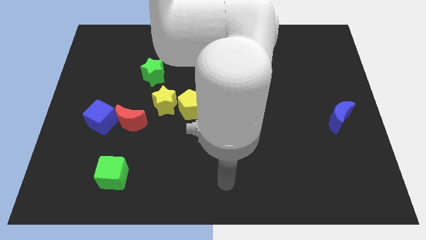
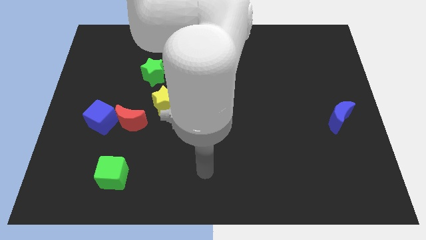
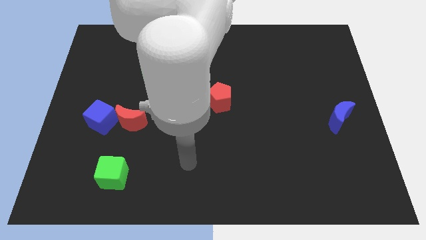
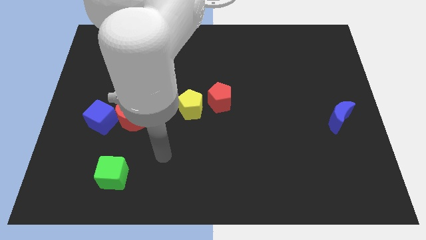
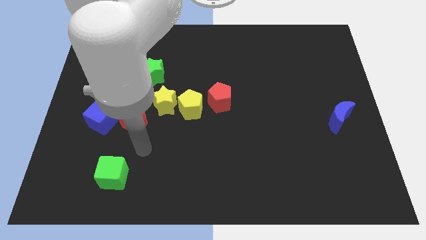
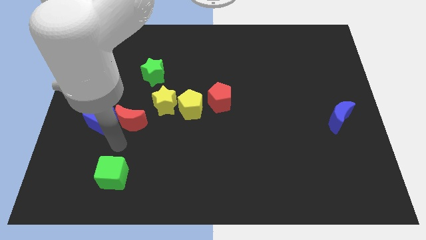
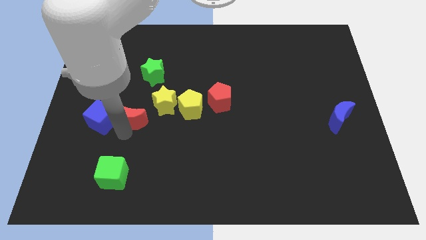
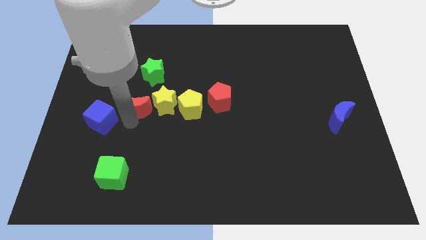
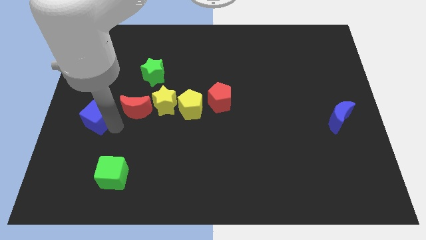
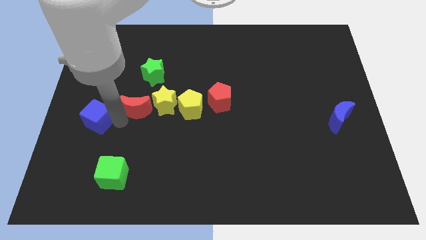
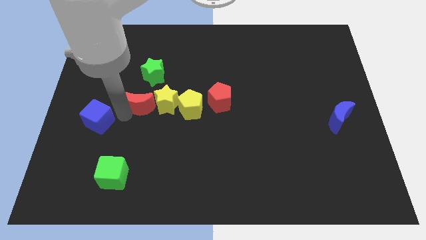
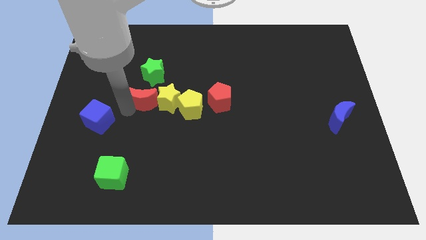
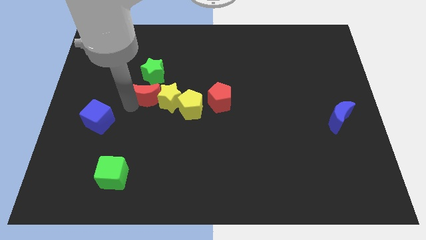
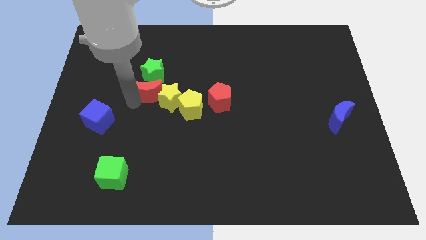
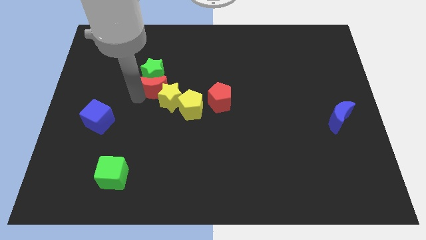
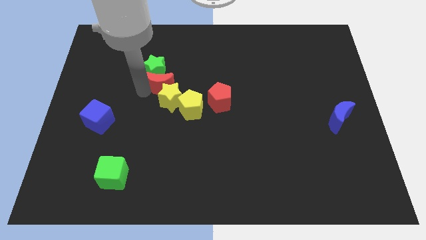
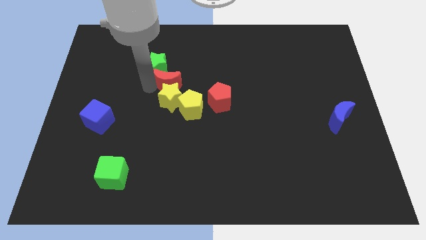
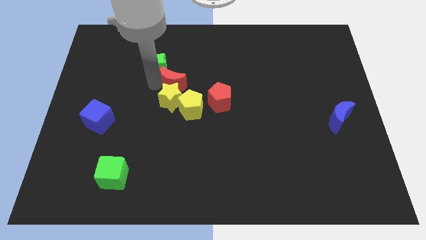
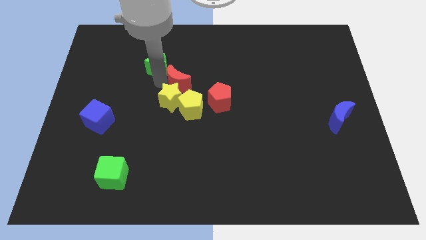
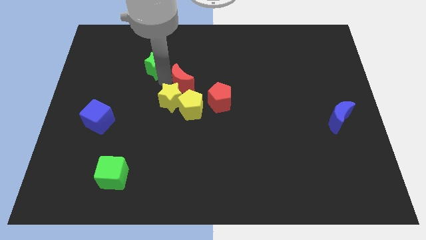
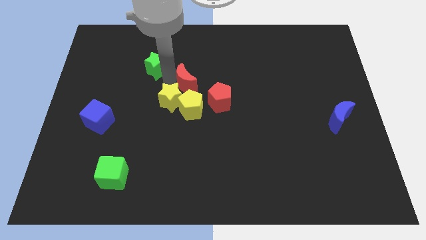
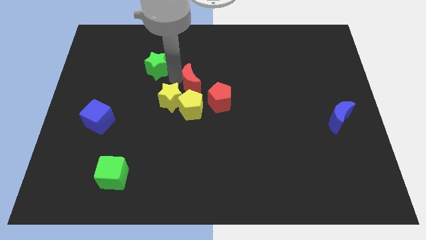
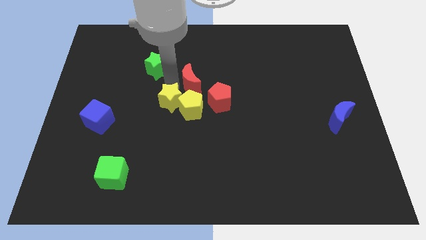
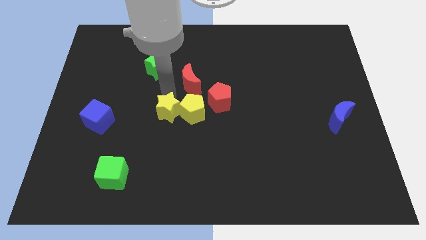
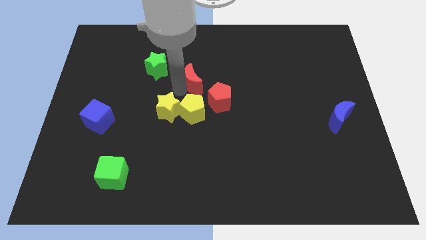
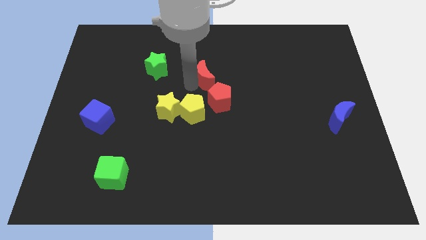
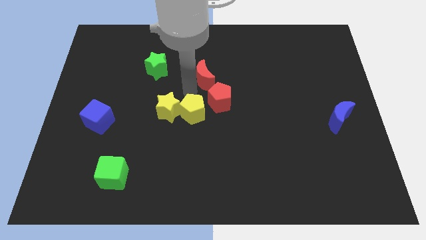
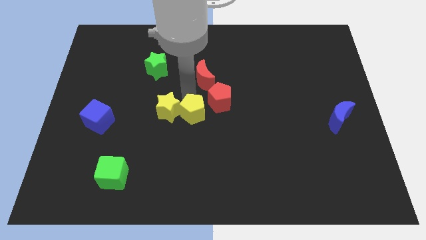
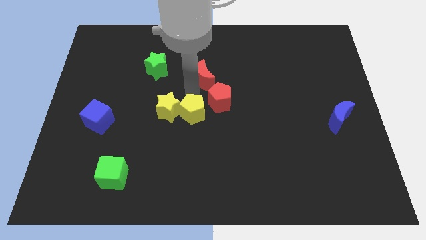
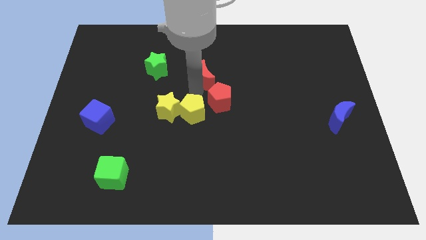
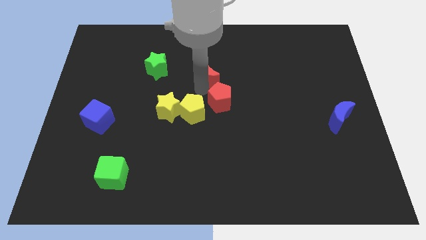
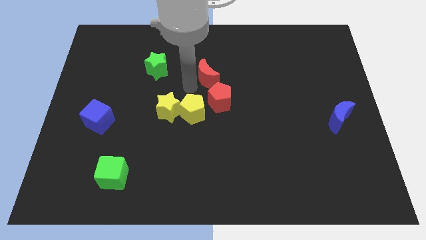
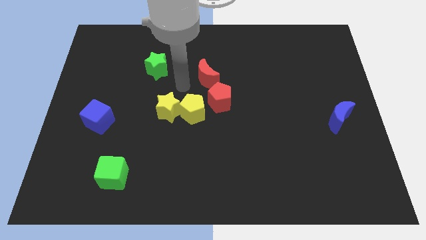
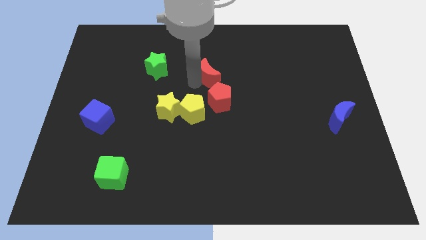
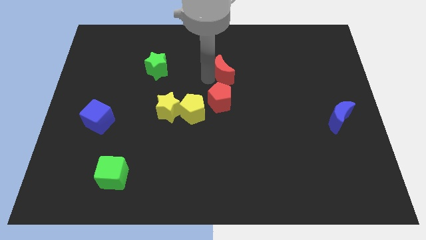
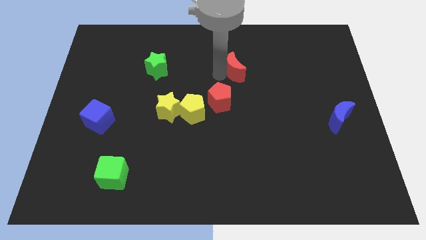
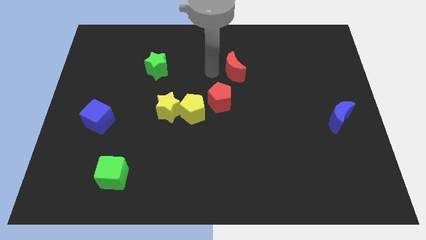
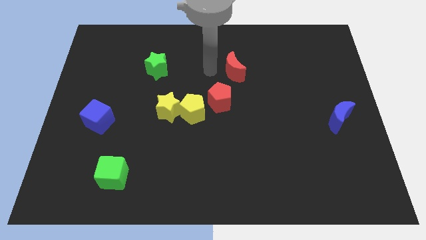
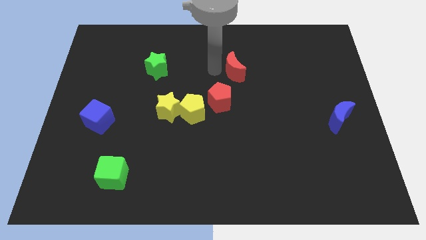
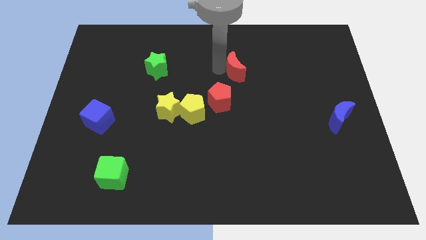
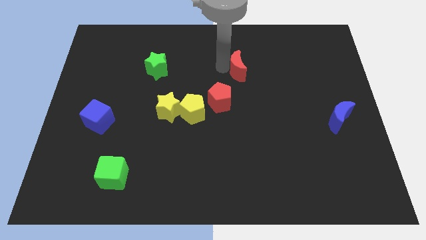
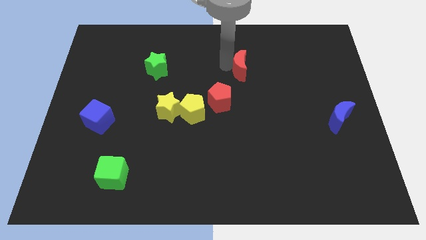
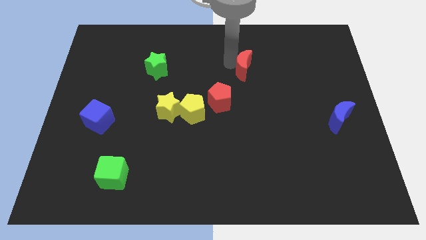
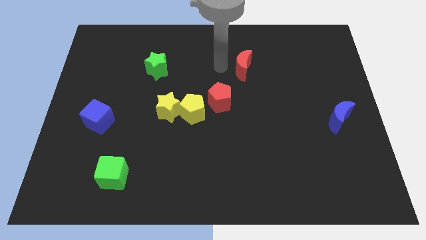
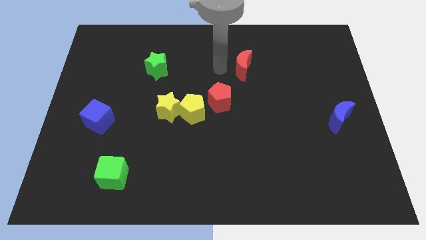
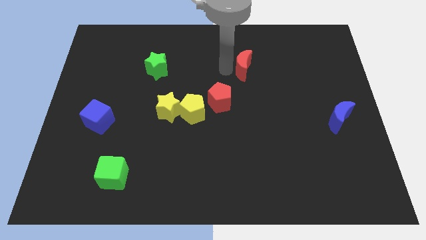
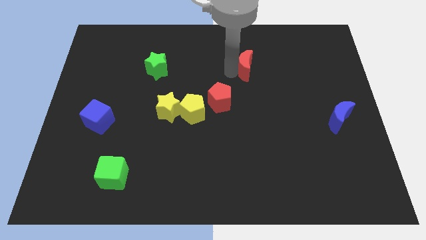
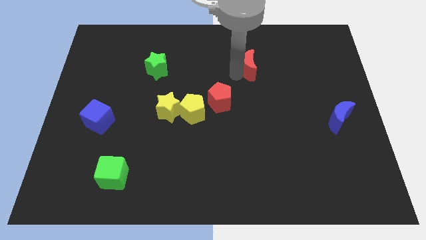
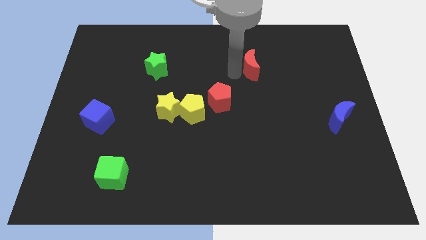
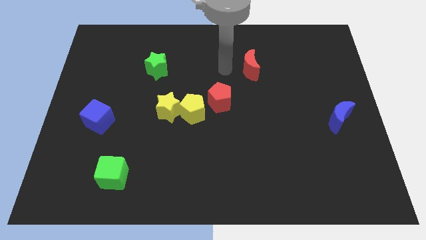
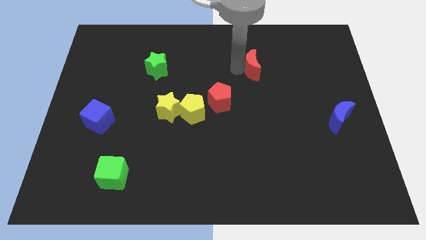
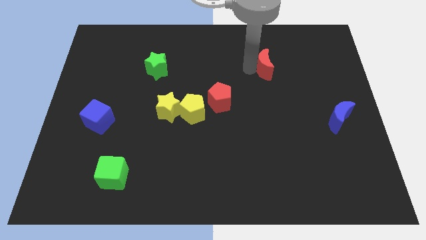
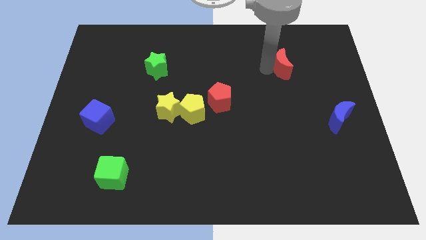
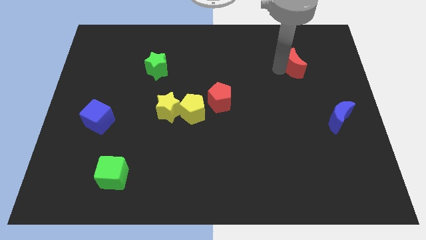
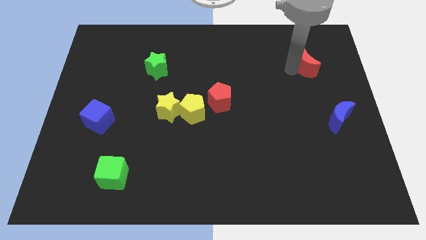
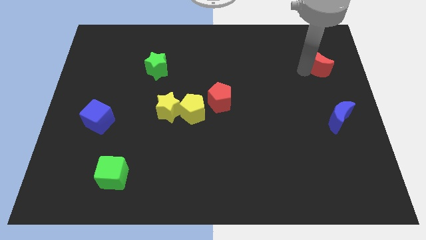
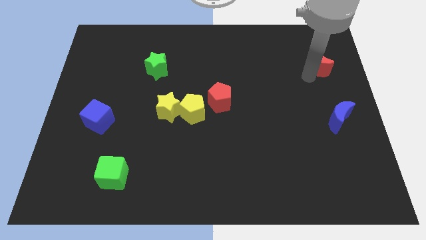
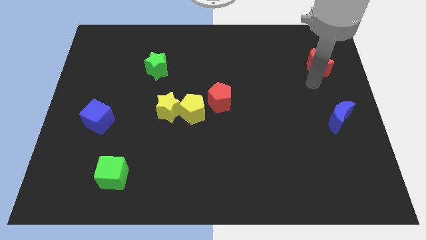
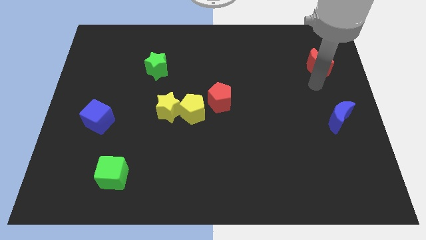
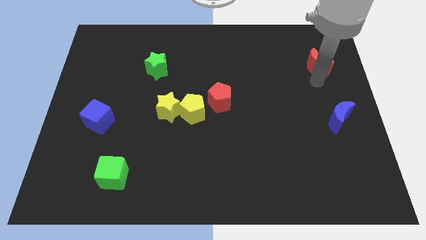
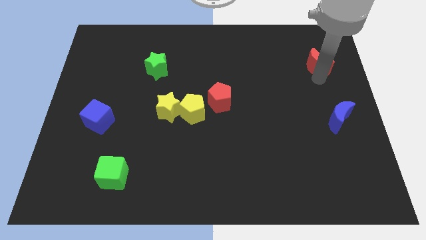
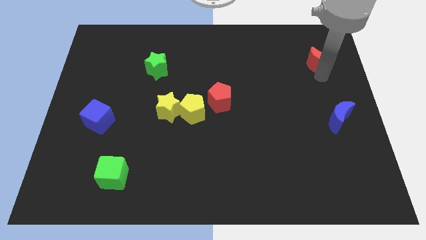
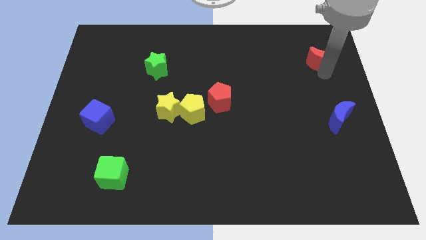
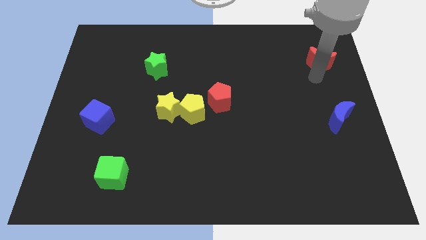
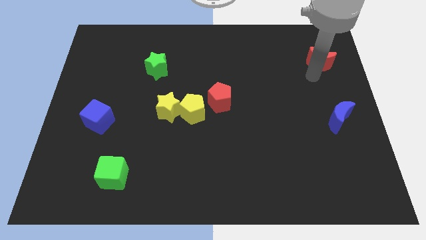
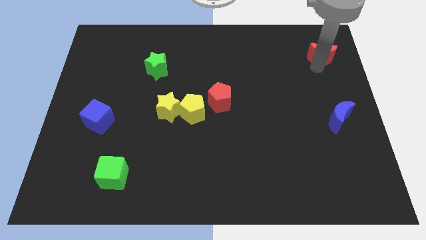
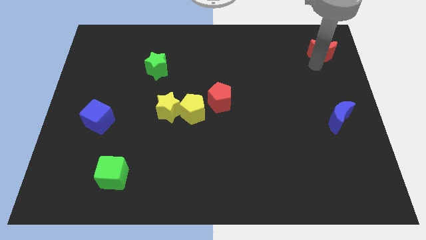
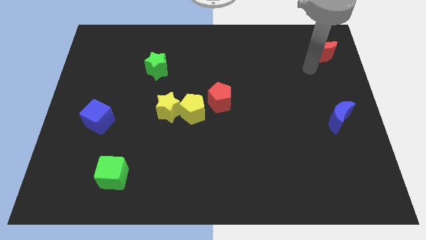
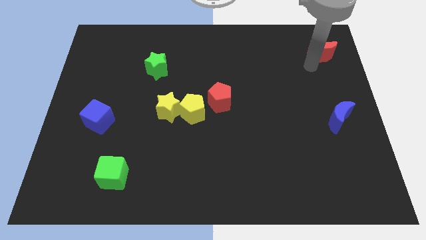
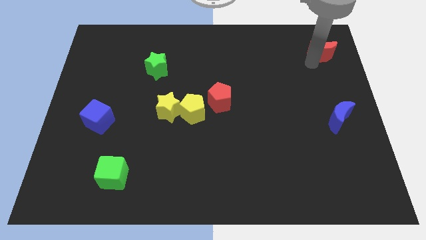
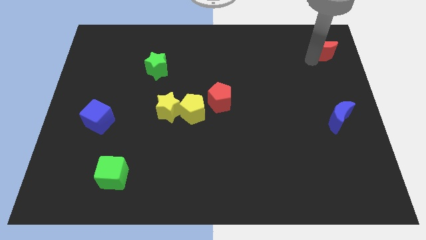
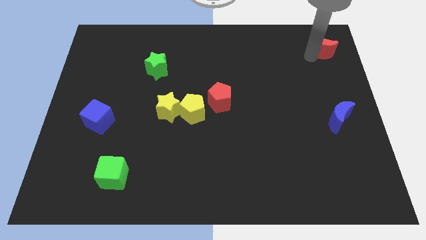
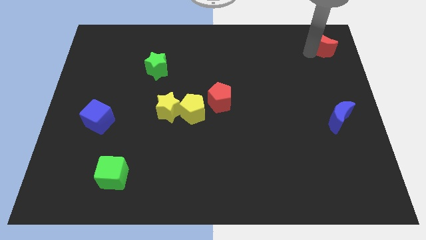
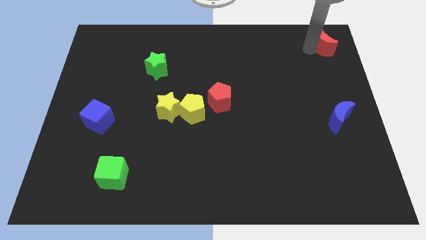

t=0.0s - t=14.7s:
push the red moon to the upper right corner
